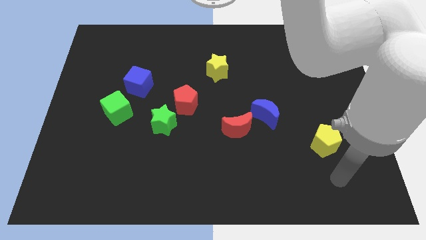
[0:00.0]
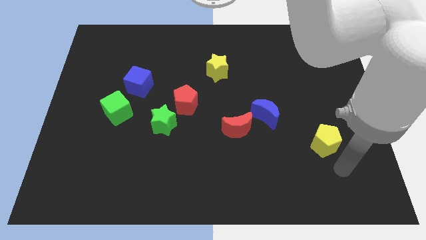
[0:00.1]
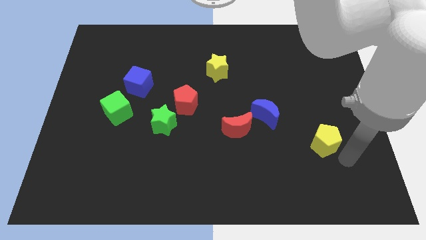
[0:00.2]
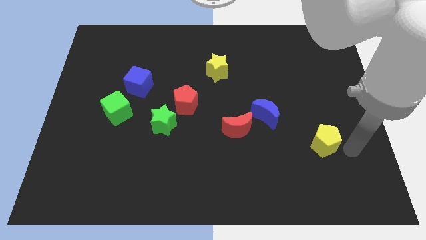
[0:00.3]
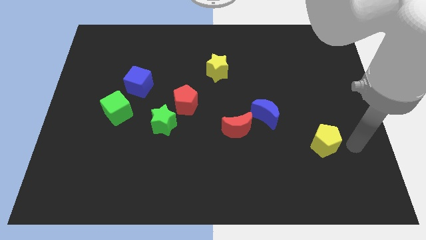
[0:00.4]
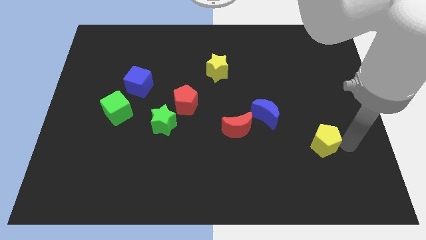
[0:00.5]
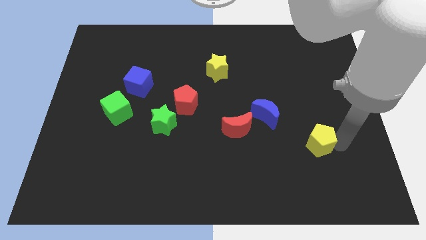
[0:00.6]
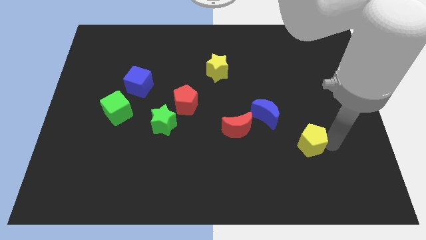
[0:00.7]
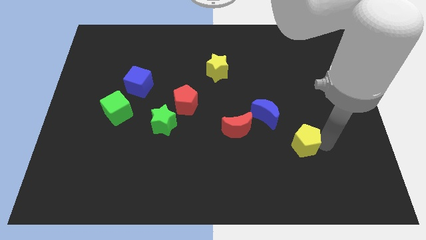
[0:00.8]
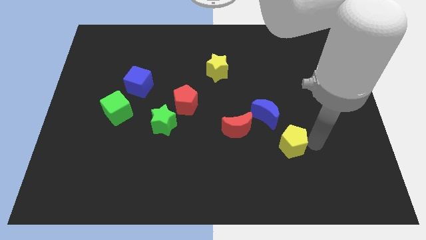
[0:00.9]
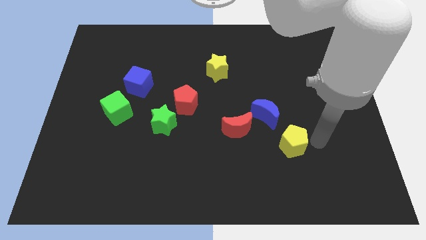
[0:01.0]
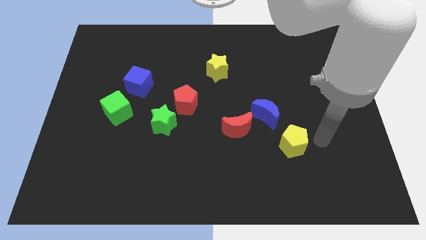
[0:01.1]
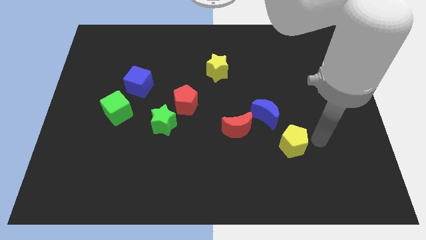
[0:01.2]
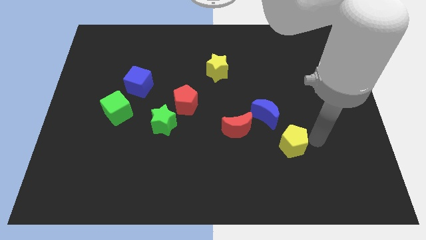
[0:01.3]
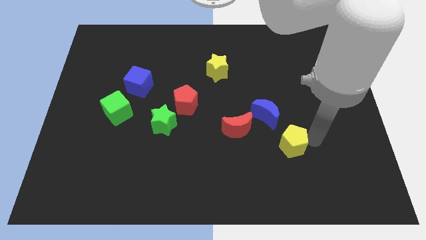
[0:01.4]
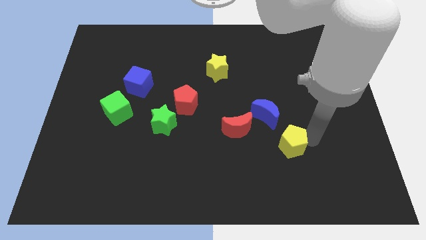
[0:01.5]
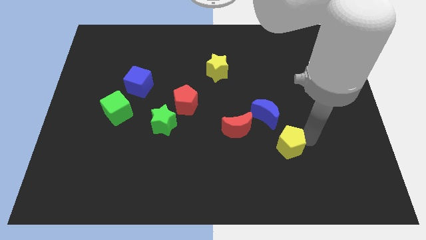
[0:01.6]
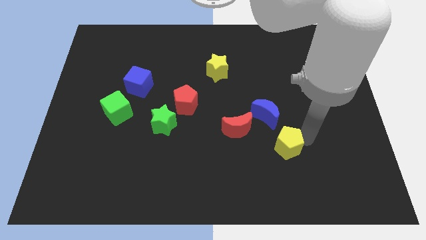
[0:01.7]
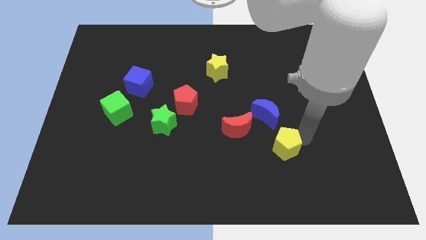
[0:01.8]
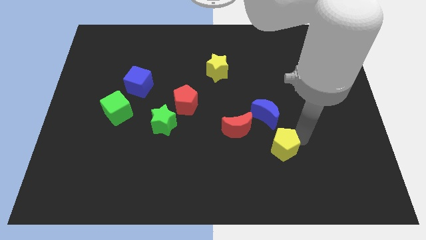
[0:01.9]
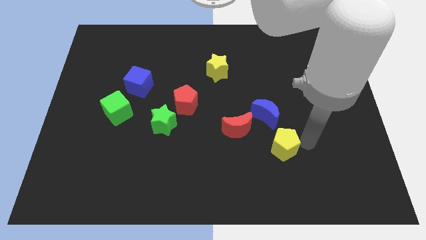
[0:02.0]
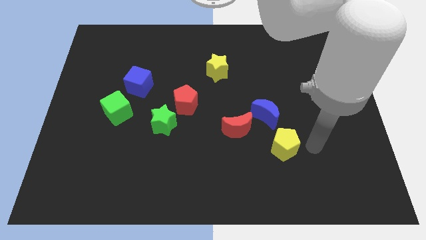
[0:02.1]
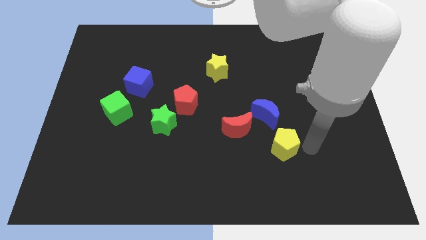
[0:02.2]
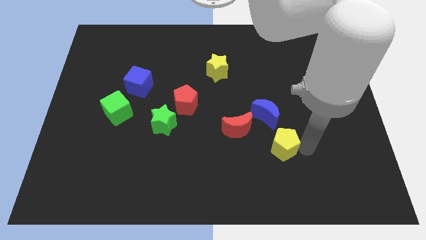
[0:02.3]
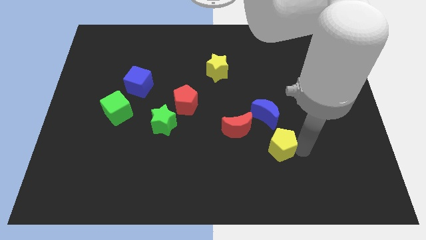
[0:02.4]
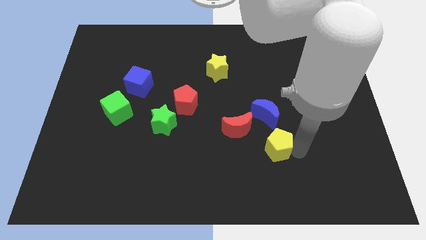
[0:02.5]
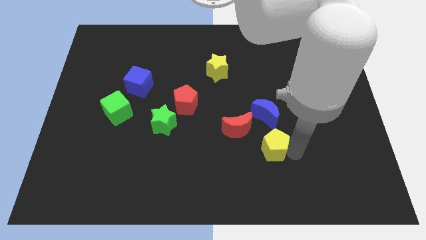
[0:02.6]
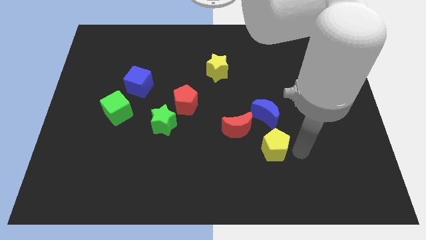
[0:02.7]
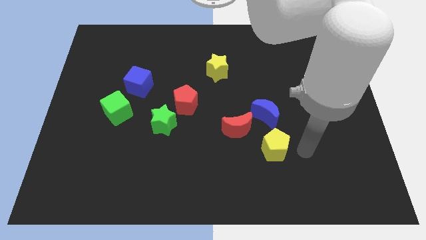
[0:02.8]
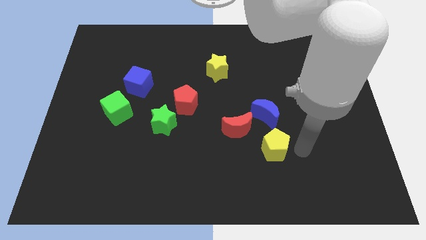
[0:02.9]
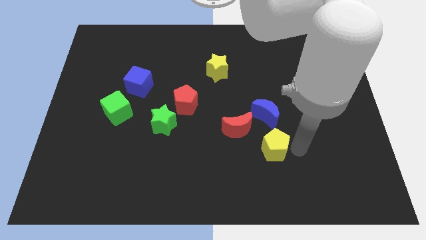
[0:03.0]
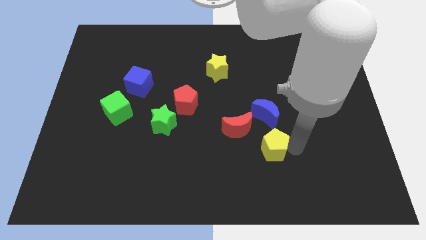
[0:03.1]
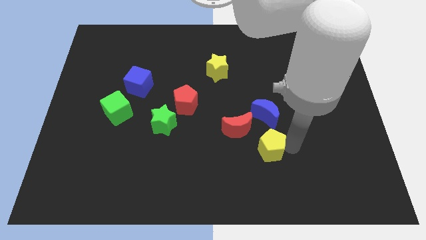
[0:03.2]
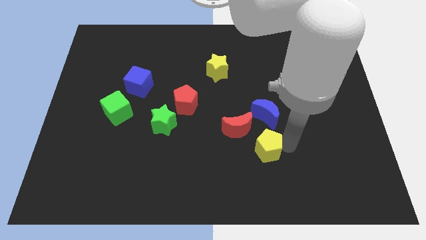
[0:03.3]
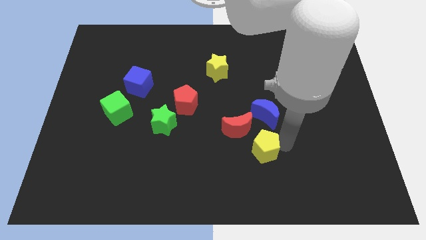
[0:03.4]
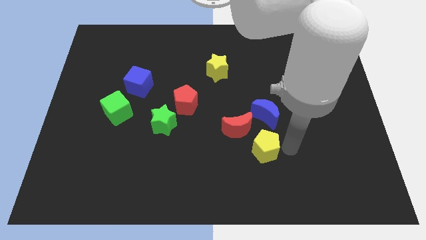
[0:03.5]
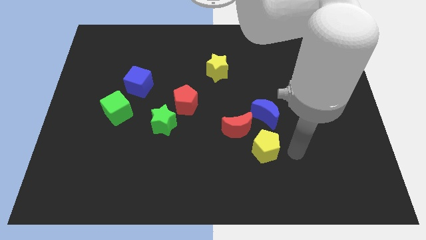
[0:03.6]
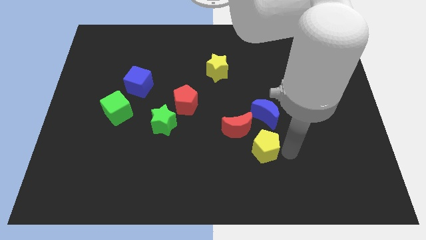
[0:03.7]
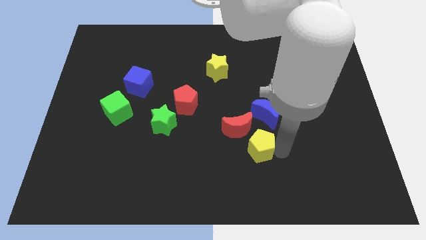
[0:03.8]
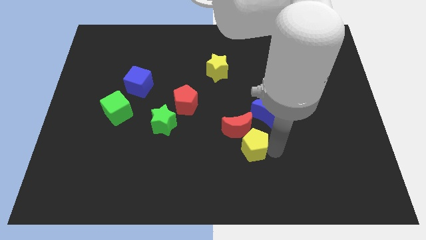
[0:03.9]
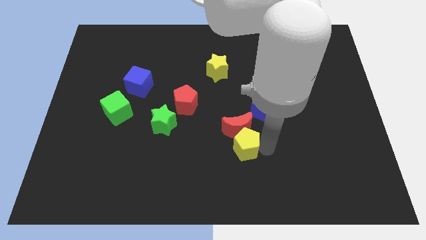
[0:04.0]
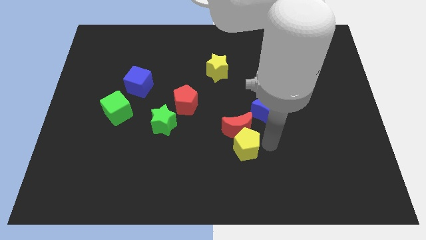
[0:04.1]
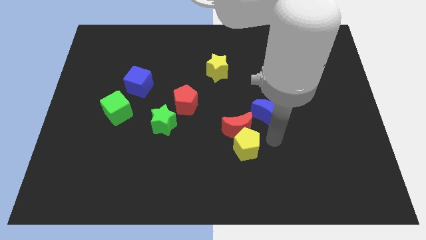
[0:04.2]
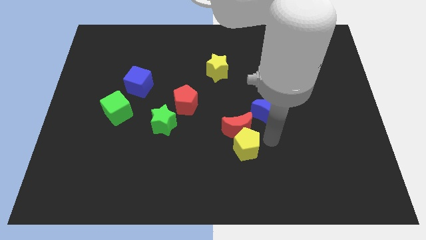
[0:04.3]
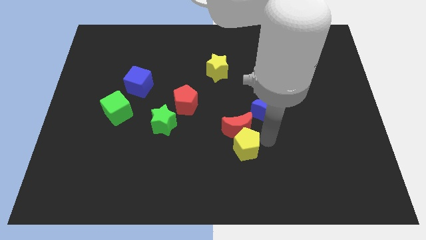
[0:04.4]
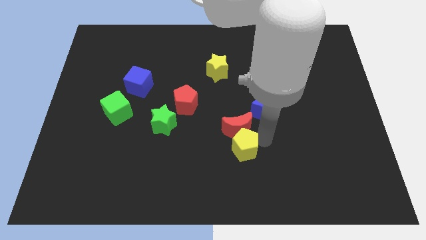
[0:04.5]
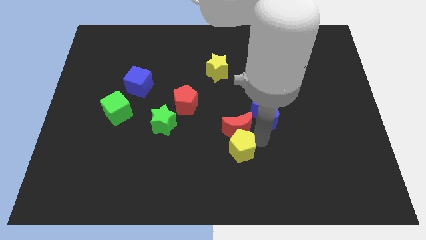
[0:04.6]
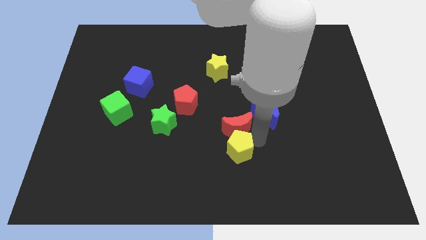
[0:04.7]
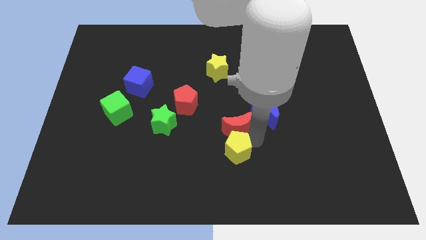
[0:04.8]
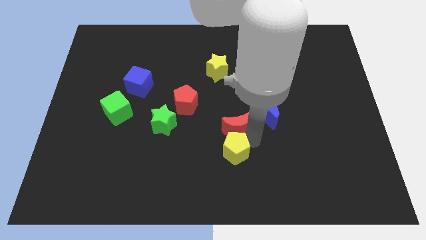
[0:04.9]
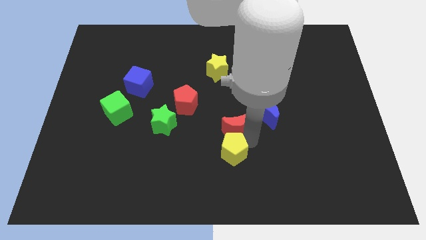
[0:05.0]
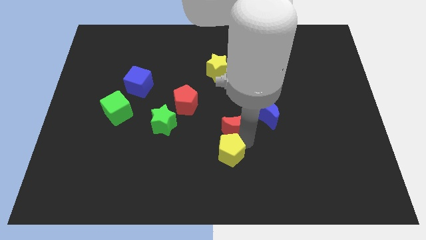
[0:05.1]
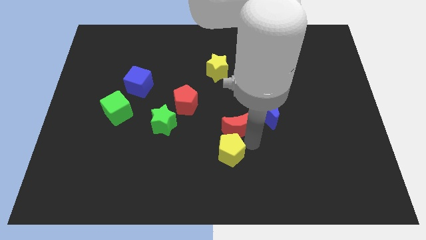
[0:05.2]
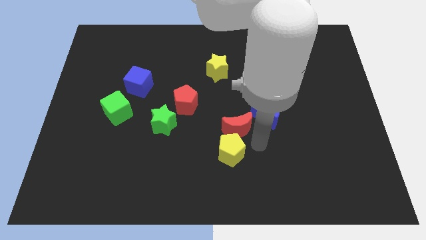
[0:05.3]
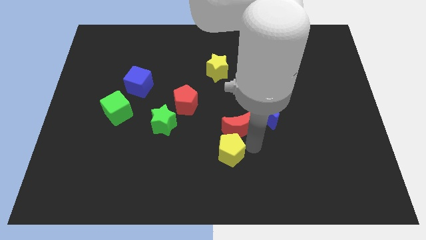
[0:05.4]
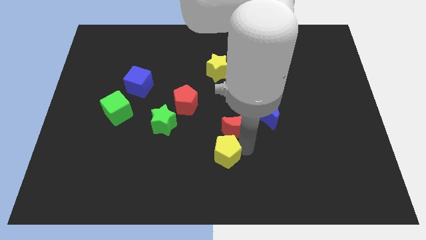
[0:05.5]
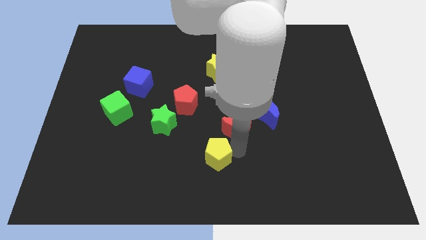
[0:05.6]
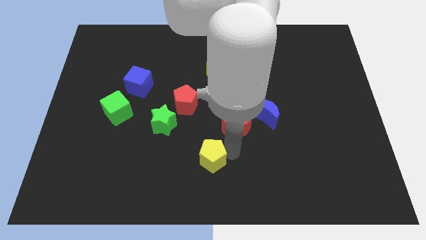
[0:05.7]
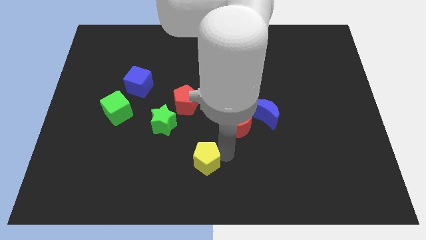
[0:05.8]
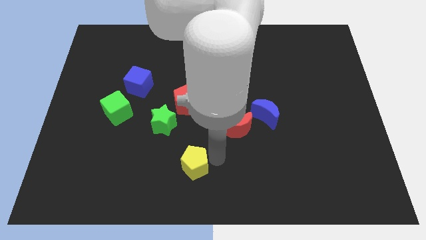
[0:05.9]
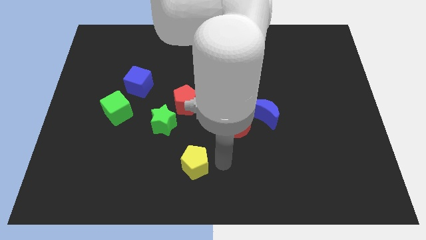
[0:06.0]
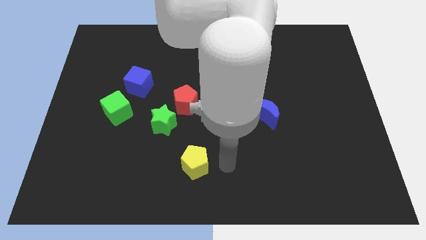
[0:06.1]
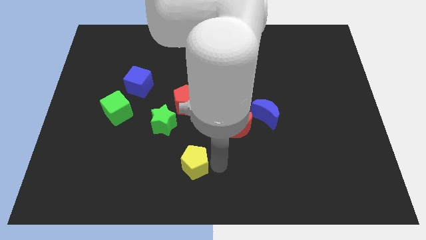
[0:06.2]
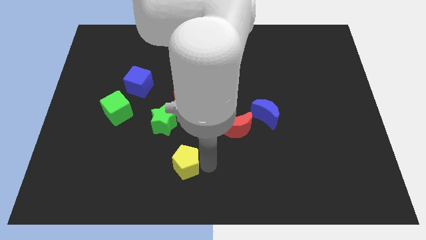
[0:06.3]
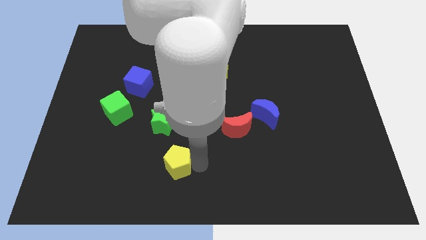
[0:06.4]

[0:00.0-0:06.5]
slide the yellow pentagon to the bottom side of the green star
